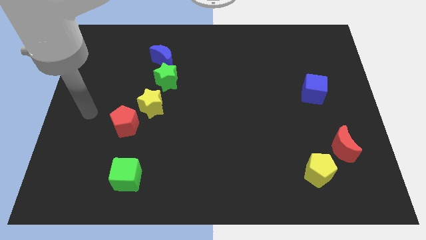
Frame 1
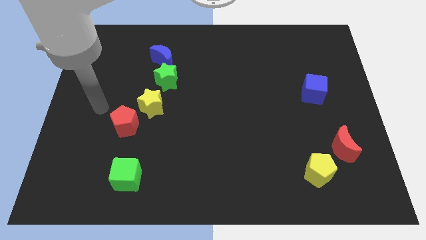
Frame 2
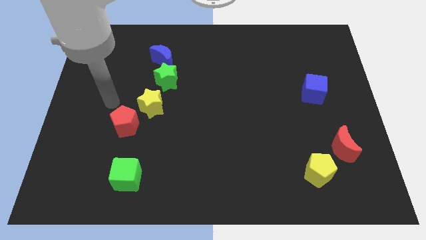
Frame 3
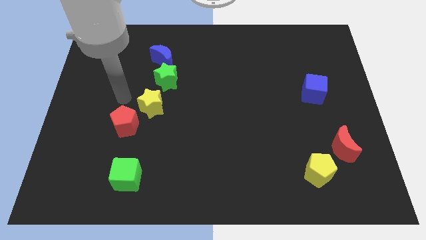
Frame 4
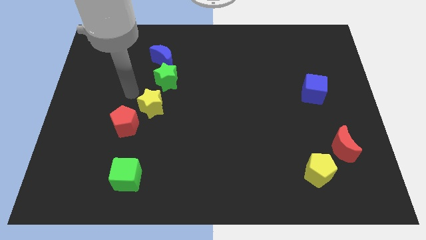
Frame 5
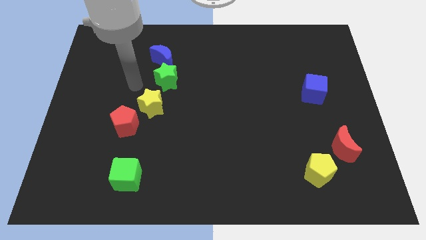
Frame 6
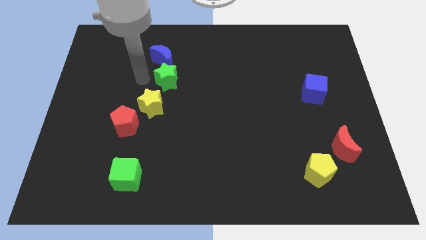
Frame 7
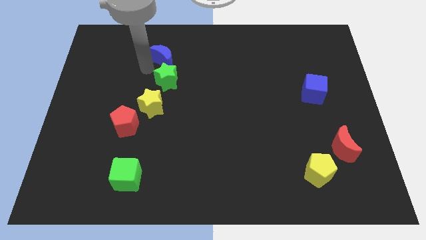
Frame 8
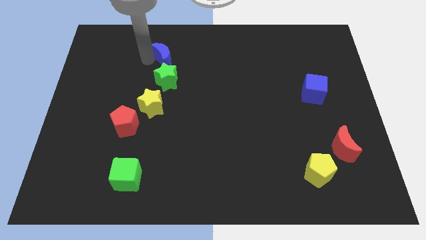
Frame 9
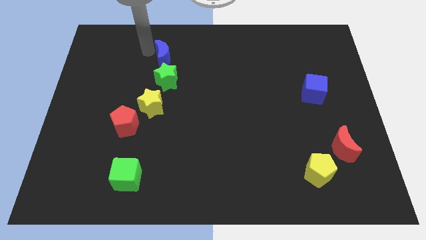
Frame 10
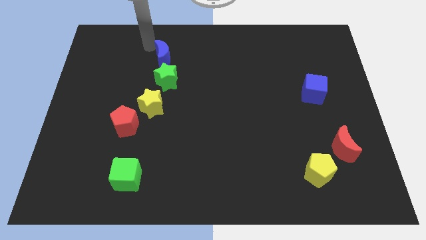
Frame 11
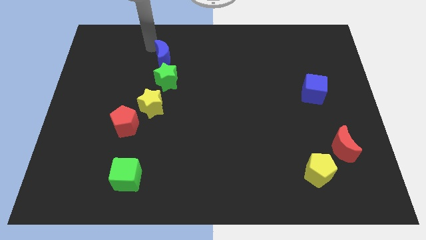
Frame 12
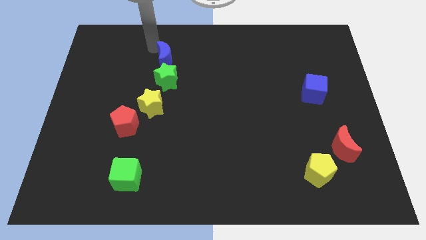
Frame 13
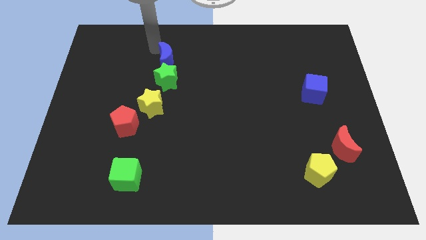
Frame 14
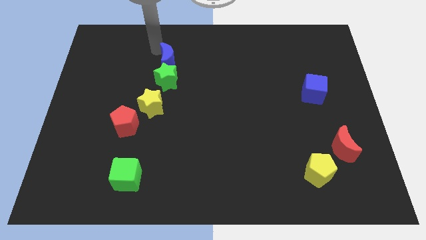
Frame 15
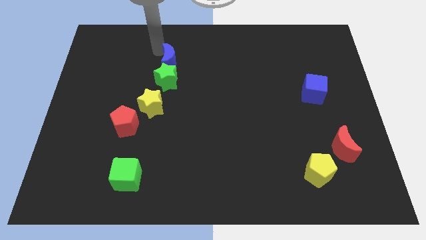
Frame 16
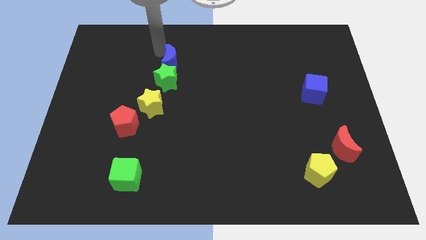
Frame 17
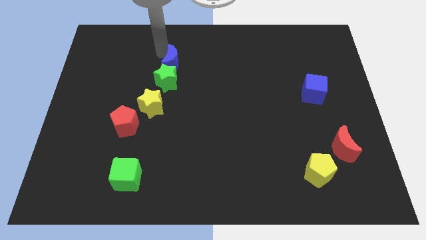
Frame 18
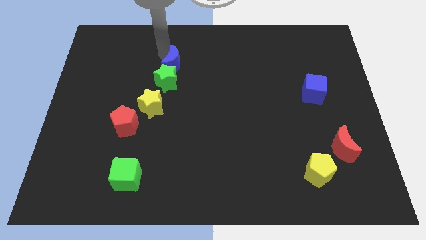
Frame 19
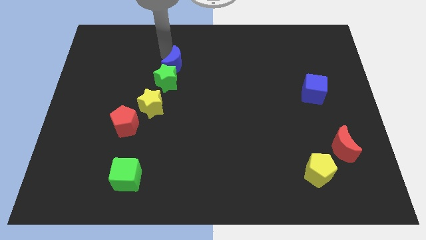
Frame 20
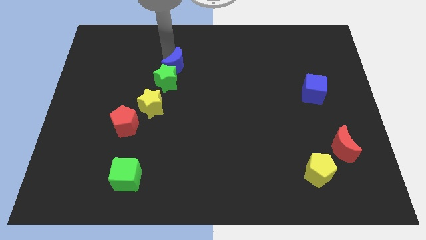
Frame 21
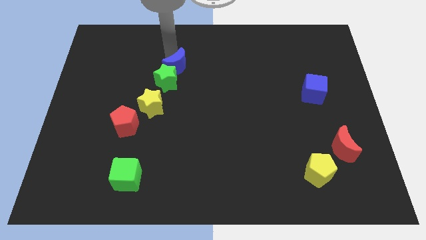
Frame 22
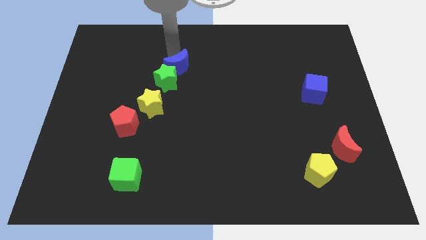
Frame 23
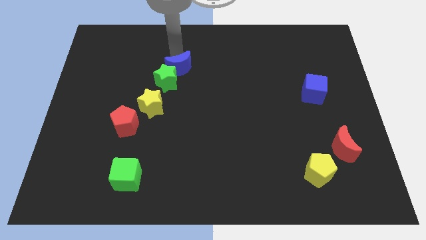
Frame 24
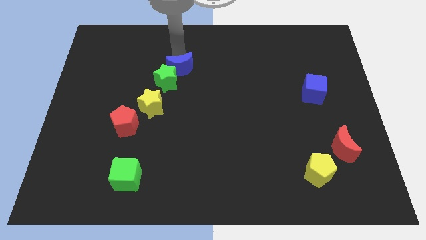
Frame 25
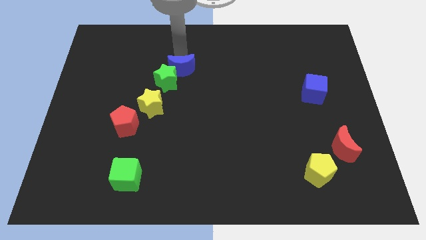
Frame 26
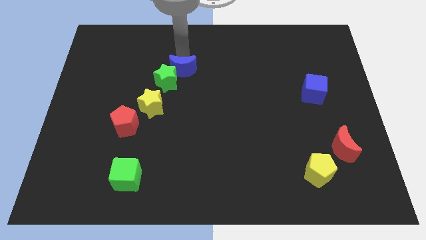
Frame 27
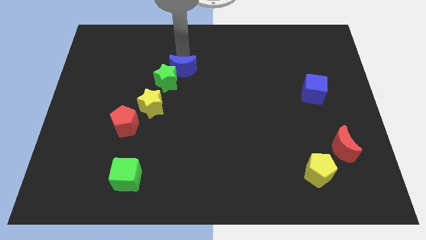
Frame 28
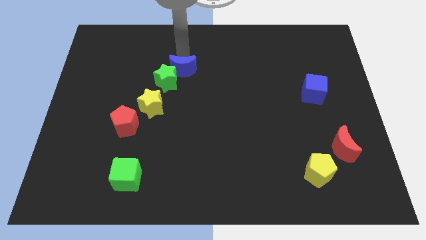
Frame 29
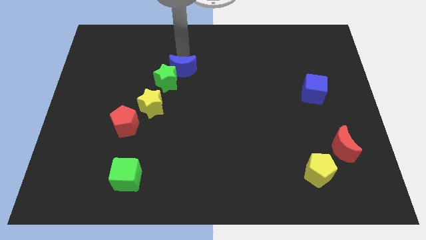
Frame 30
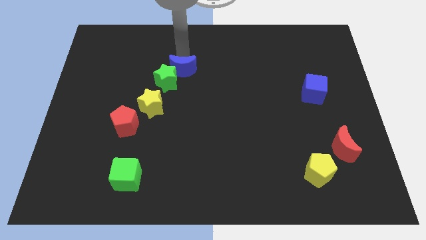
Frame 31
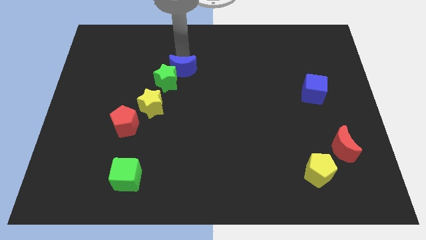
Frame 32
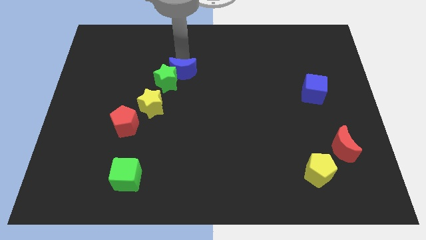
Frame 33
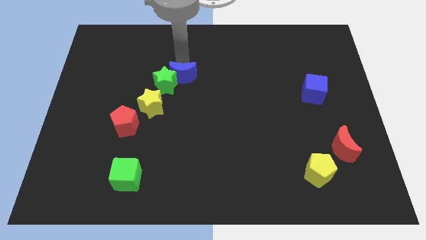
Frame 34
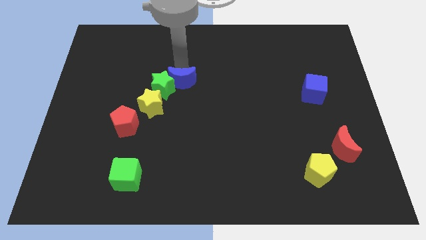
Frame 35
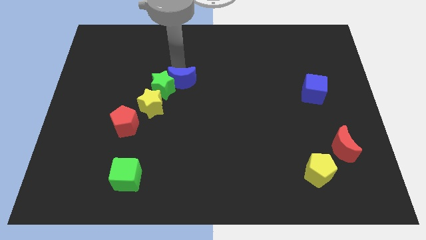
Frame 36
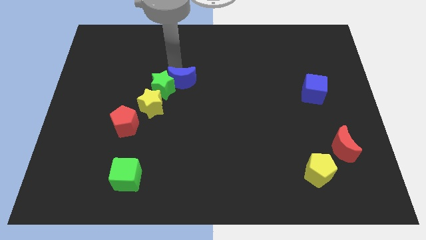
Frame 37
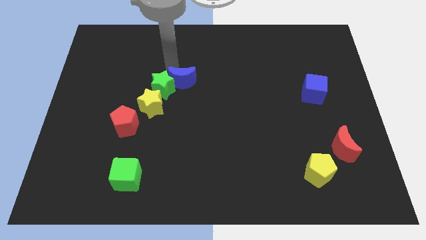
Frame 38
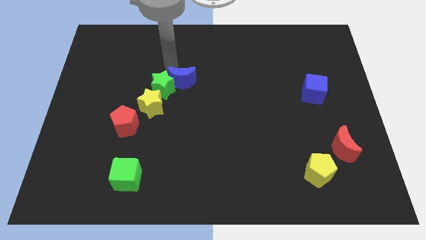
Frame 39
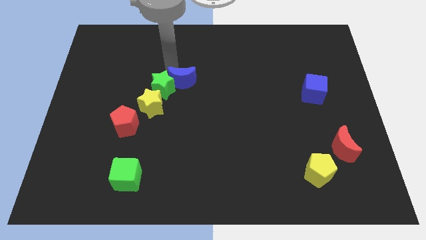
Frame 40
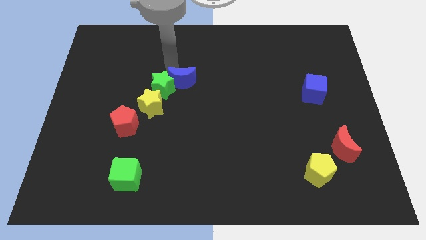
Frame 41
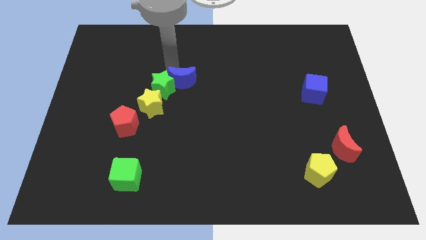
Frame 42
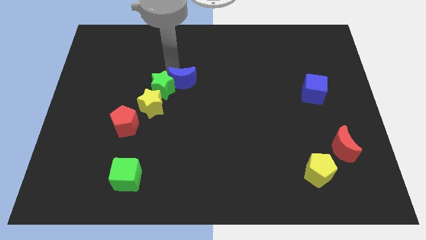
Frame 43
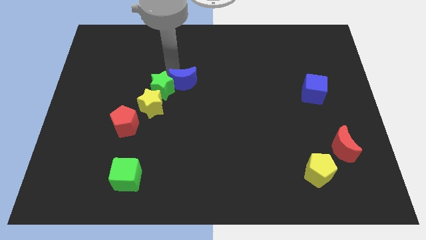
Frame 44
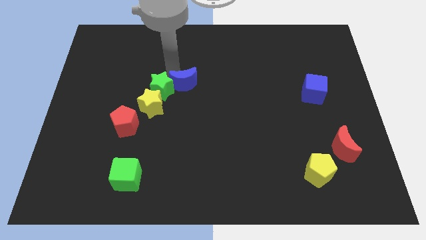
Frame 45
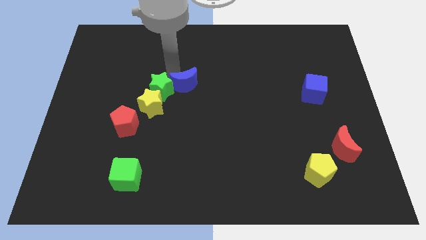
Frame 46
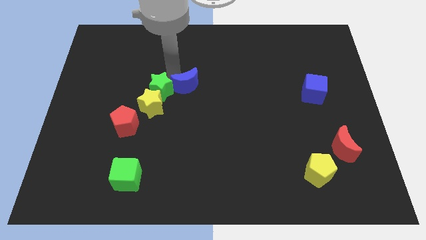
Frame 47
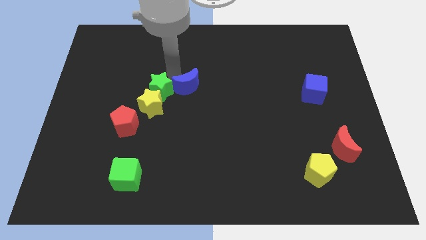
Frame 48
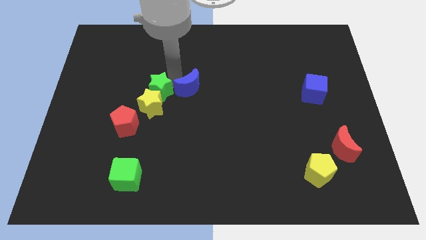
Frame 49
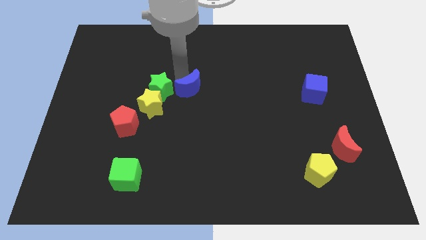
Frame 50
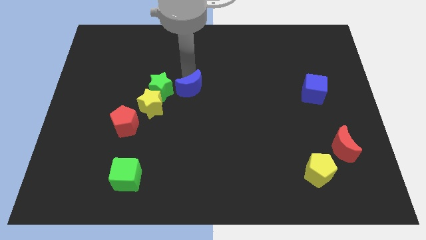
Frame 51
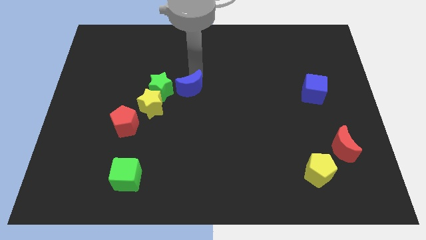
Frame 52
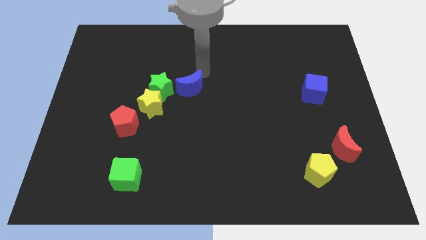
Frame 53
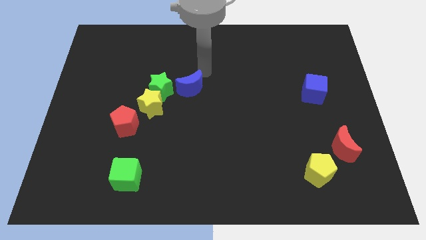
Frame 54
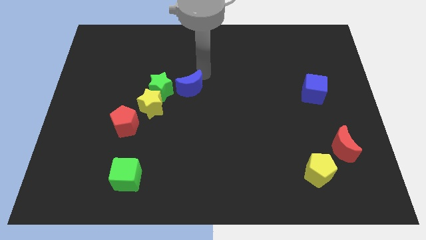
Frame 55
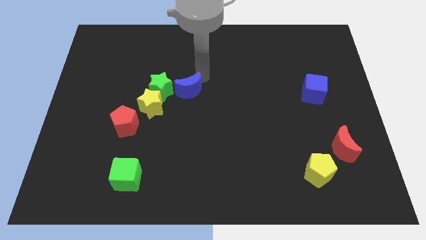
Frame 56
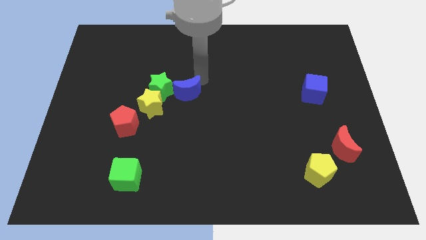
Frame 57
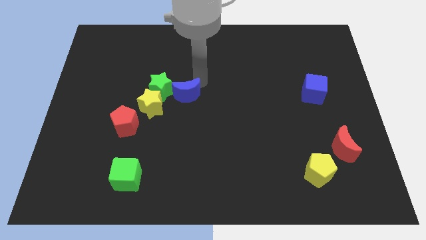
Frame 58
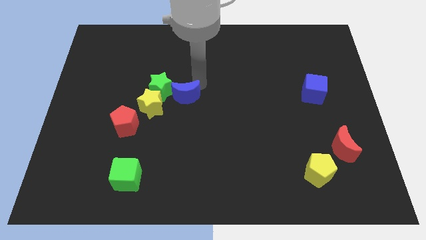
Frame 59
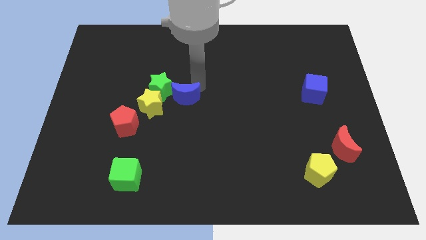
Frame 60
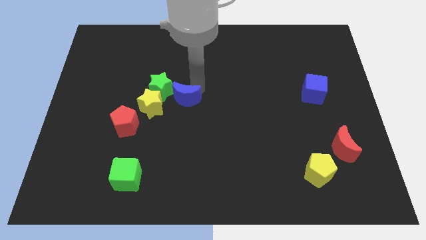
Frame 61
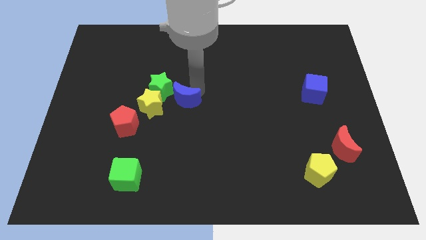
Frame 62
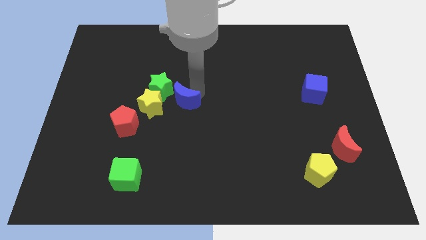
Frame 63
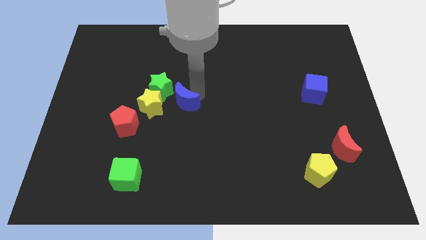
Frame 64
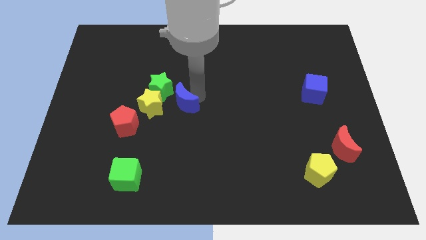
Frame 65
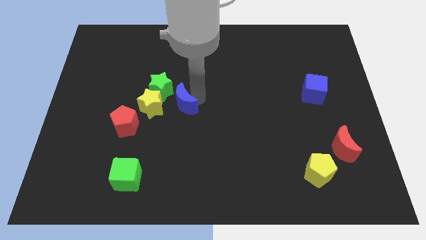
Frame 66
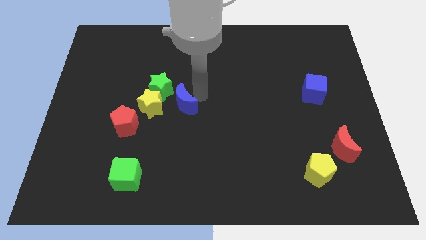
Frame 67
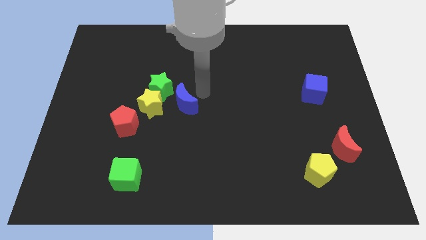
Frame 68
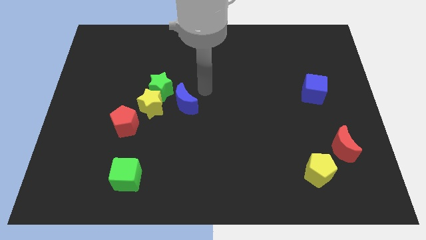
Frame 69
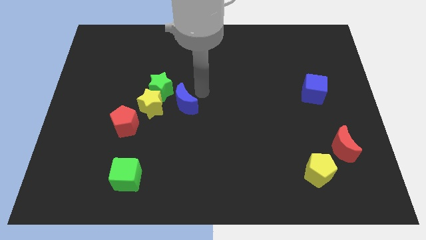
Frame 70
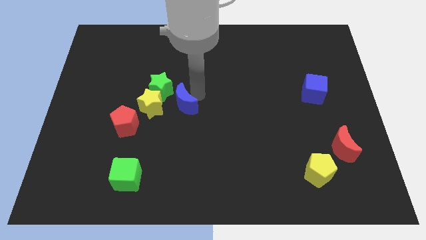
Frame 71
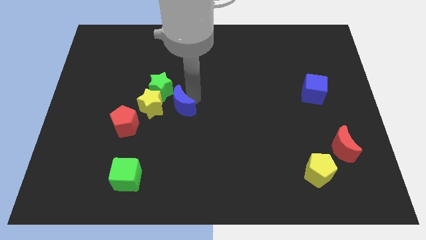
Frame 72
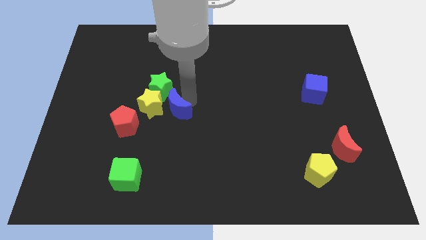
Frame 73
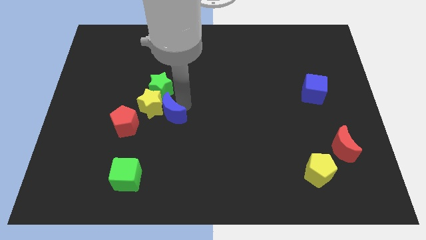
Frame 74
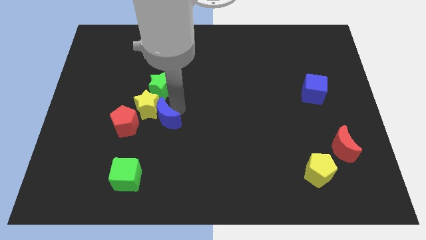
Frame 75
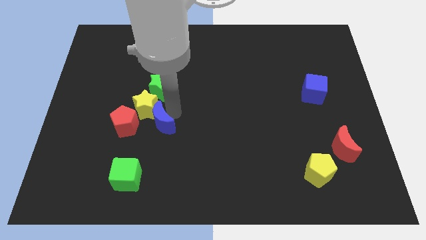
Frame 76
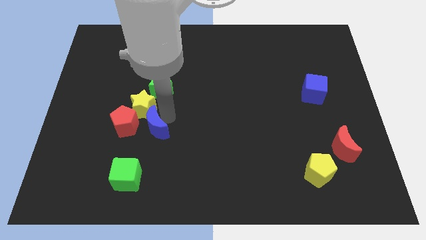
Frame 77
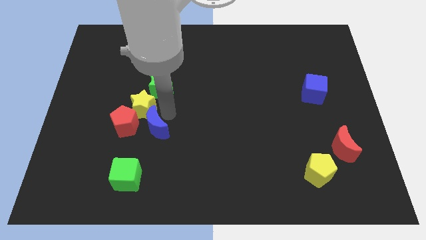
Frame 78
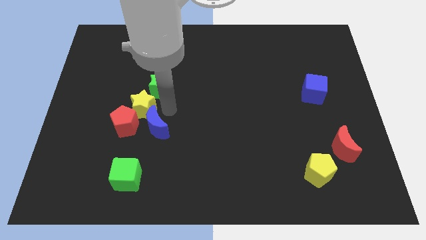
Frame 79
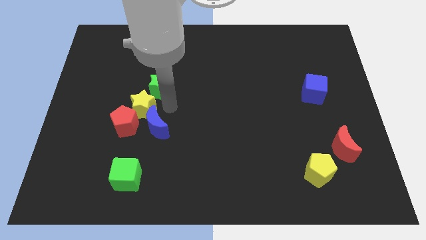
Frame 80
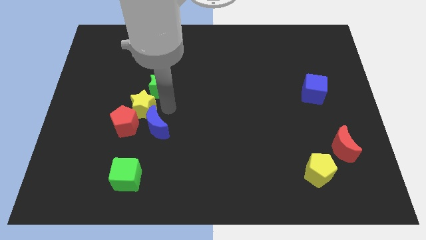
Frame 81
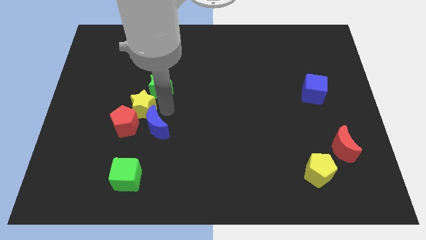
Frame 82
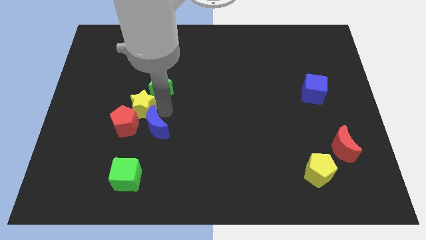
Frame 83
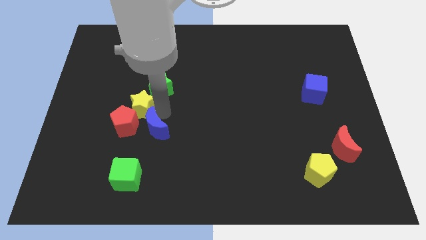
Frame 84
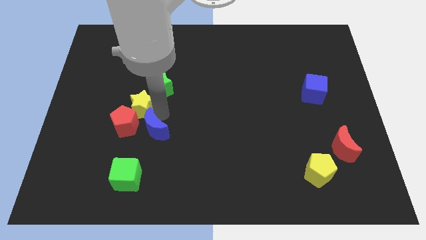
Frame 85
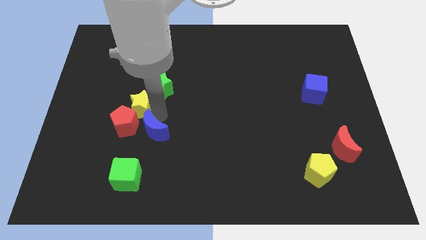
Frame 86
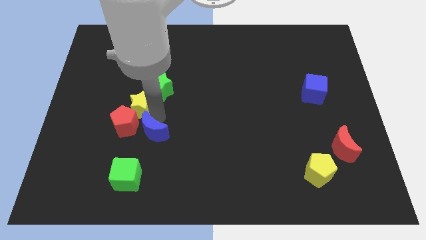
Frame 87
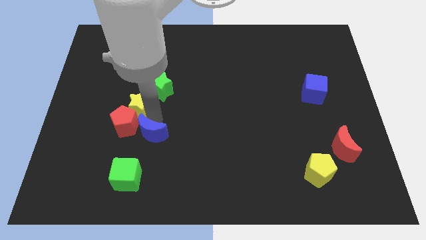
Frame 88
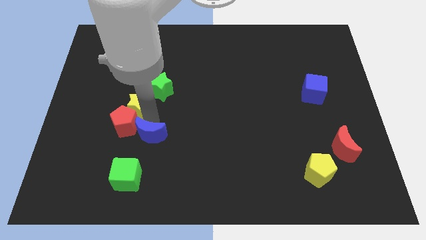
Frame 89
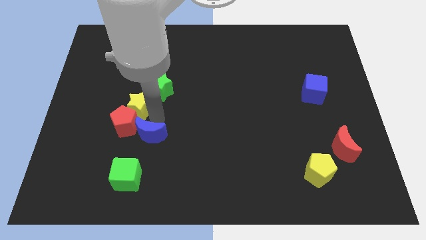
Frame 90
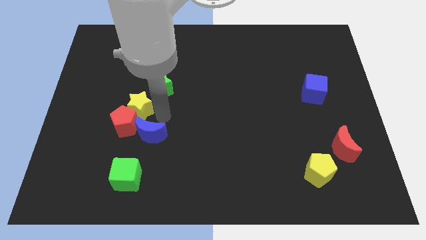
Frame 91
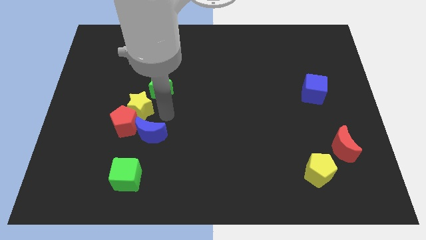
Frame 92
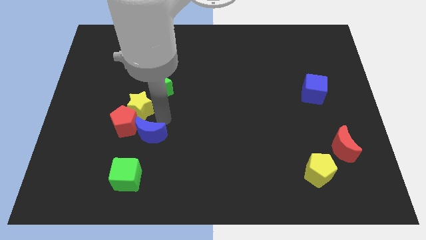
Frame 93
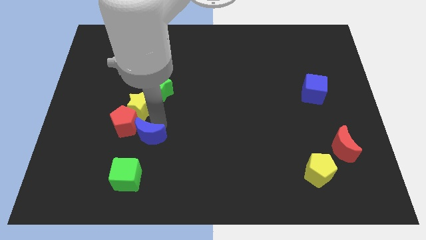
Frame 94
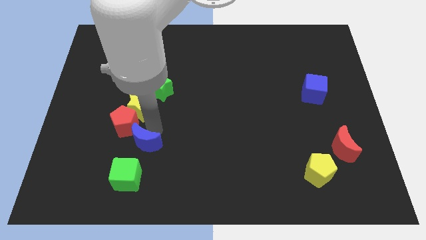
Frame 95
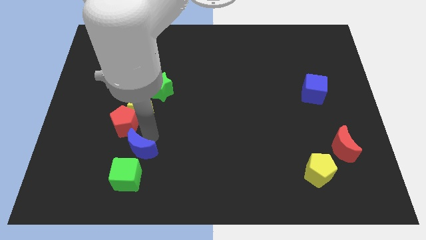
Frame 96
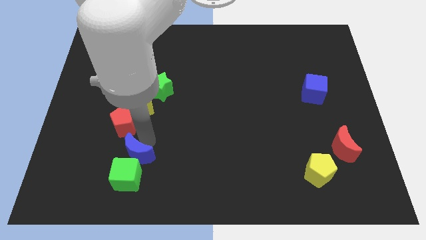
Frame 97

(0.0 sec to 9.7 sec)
move the blue moon next to the green cube
